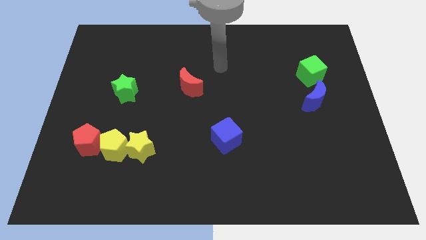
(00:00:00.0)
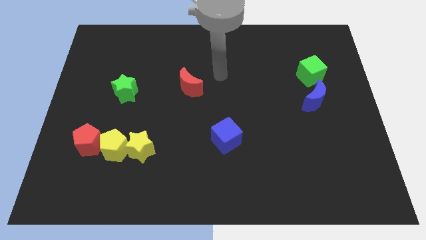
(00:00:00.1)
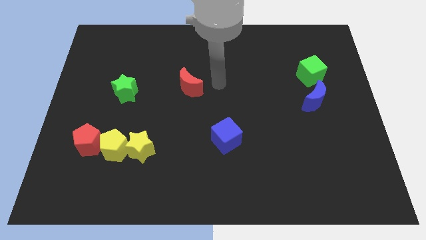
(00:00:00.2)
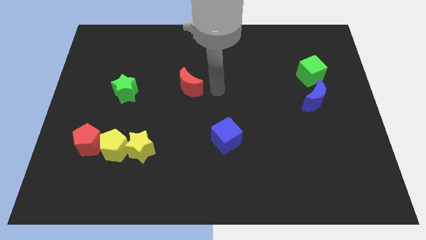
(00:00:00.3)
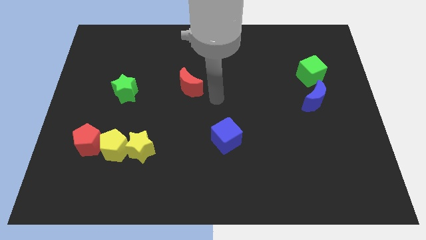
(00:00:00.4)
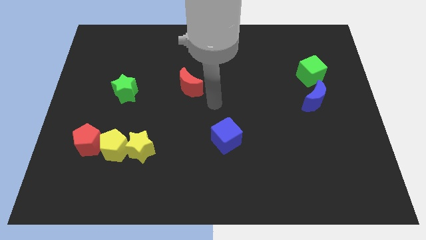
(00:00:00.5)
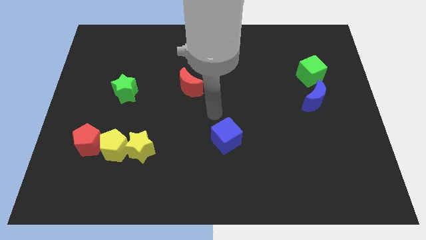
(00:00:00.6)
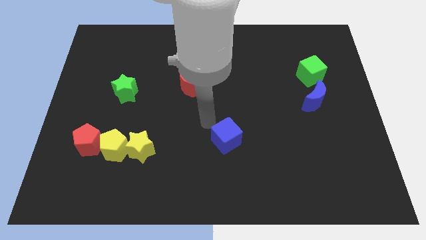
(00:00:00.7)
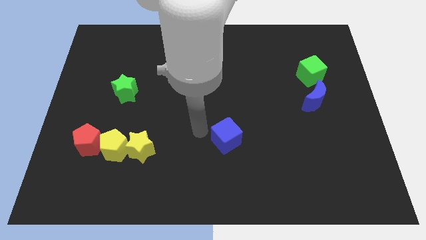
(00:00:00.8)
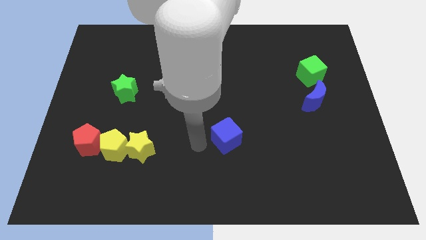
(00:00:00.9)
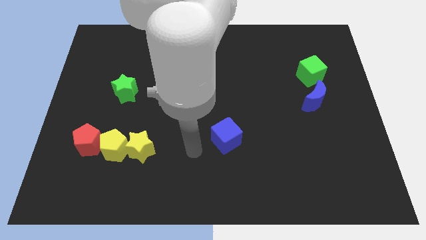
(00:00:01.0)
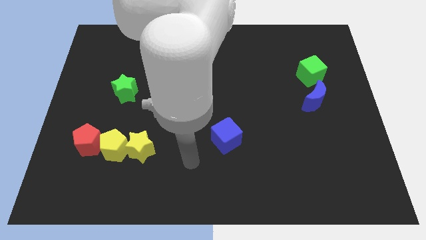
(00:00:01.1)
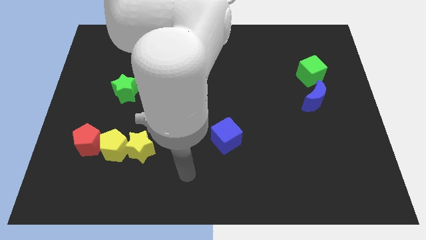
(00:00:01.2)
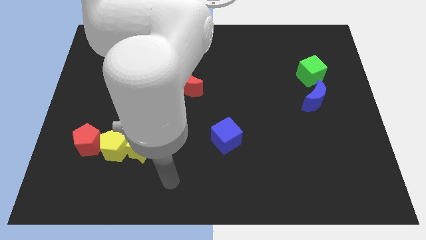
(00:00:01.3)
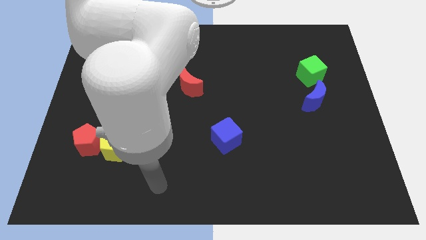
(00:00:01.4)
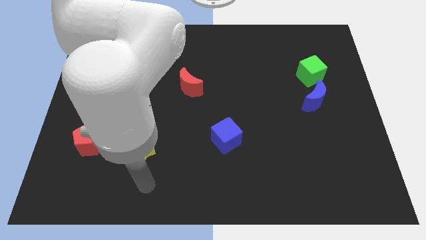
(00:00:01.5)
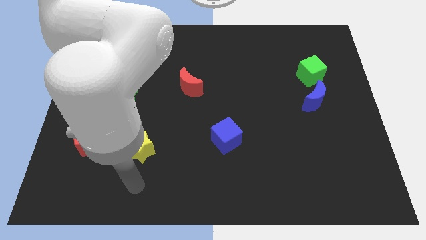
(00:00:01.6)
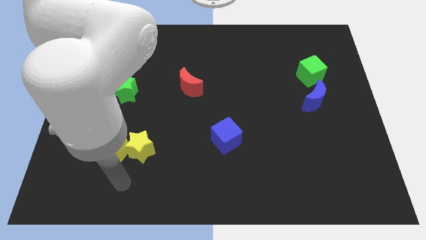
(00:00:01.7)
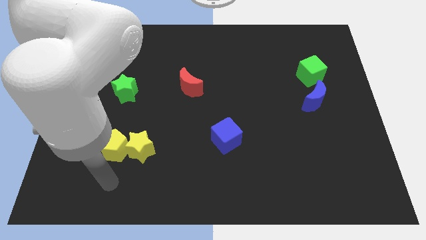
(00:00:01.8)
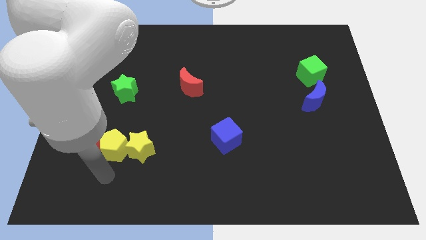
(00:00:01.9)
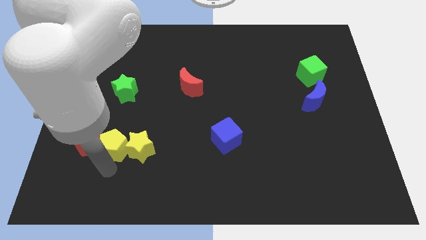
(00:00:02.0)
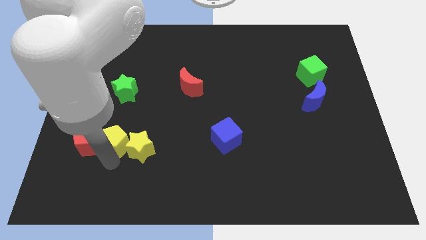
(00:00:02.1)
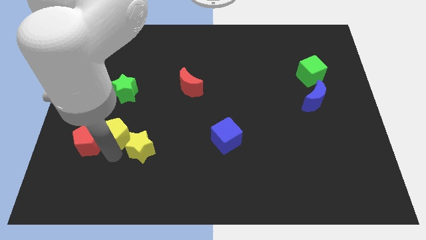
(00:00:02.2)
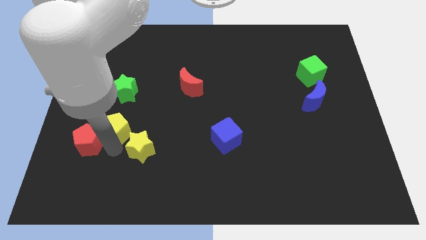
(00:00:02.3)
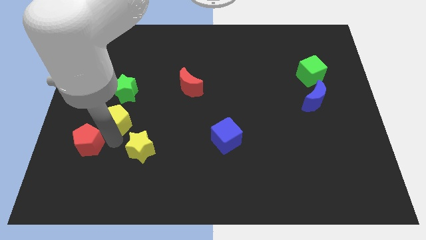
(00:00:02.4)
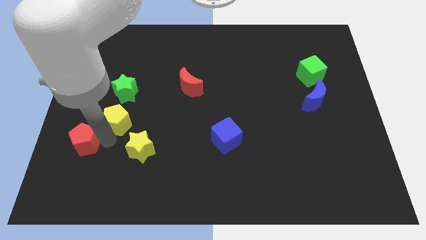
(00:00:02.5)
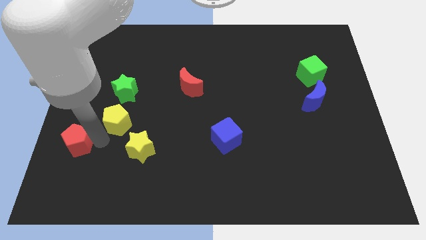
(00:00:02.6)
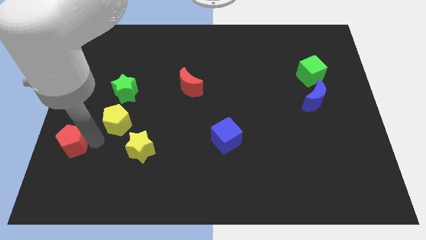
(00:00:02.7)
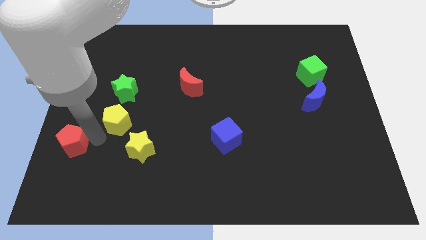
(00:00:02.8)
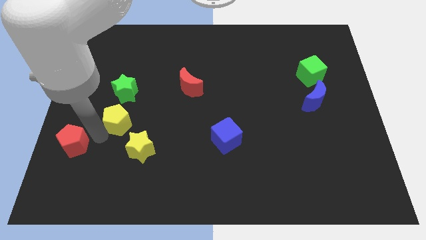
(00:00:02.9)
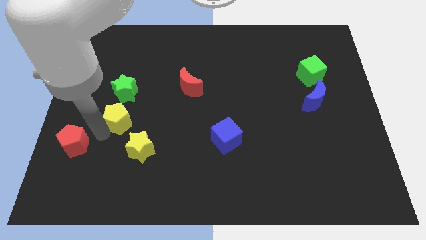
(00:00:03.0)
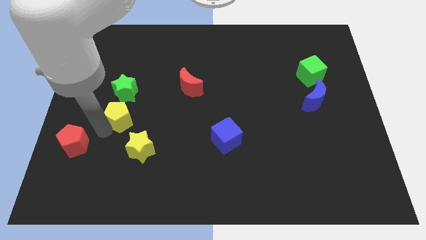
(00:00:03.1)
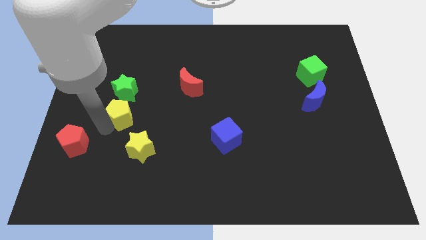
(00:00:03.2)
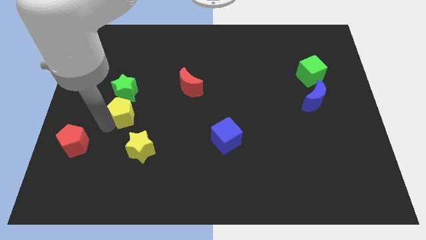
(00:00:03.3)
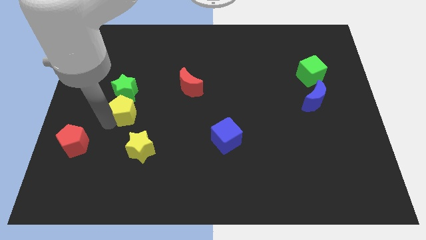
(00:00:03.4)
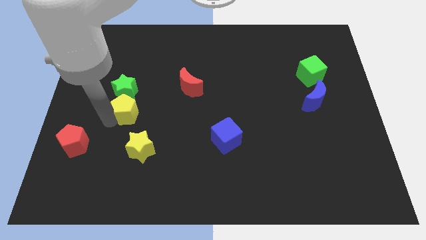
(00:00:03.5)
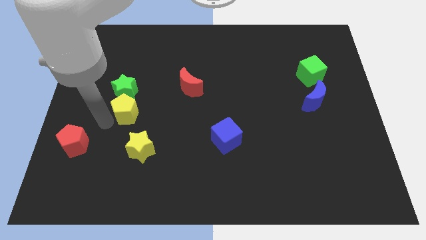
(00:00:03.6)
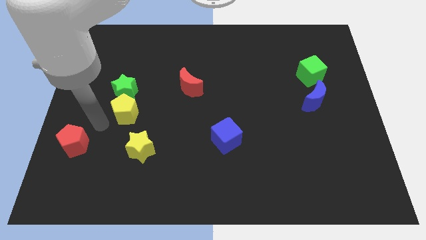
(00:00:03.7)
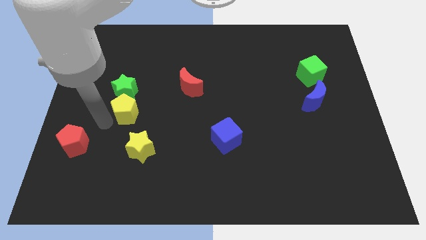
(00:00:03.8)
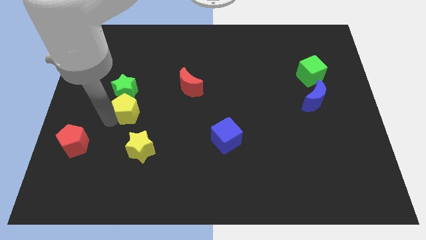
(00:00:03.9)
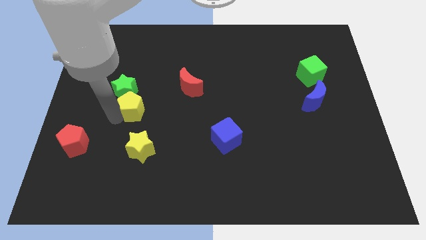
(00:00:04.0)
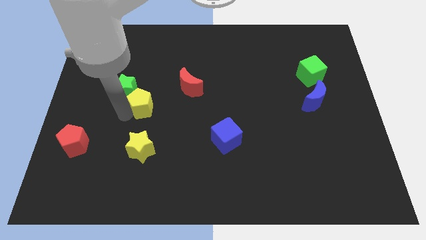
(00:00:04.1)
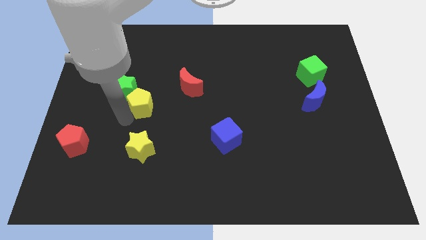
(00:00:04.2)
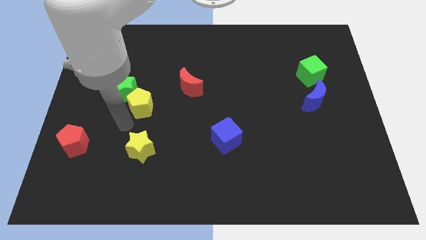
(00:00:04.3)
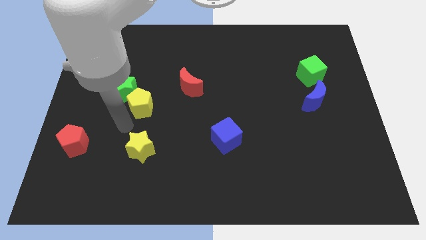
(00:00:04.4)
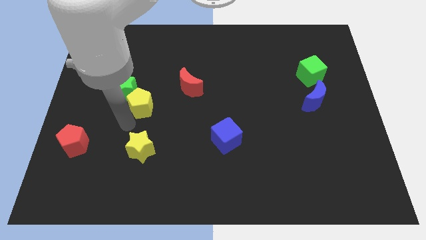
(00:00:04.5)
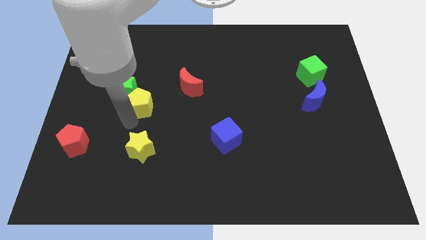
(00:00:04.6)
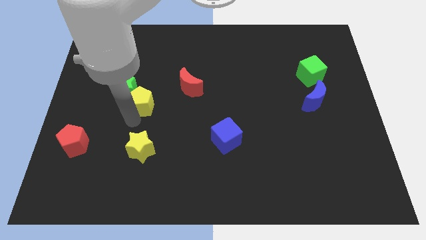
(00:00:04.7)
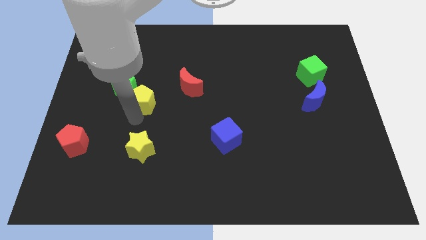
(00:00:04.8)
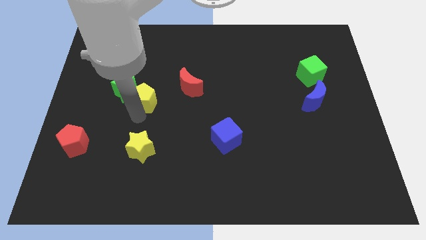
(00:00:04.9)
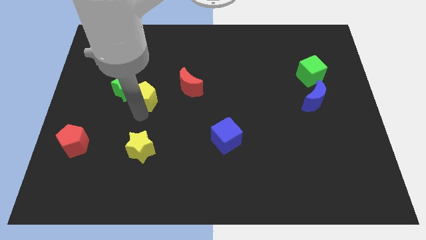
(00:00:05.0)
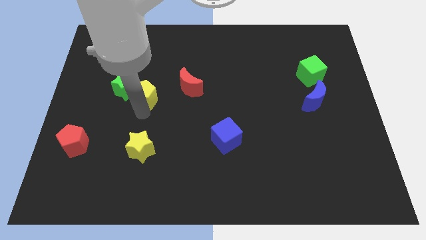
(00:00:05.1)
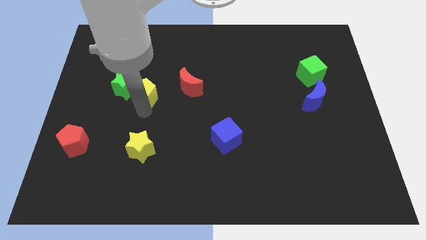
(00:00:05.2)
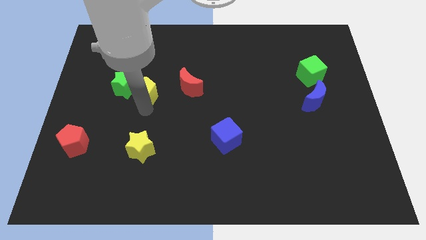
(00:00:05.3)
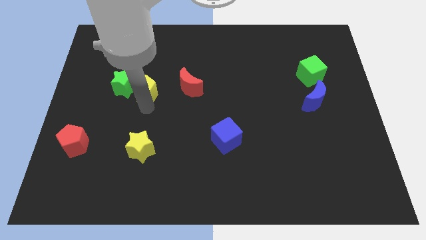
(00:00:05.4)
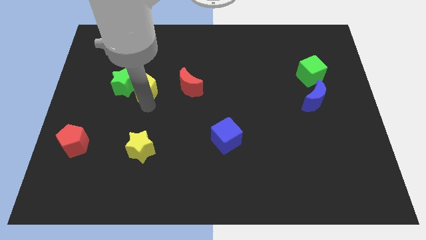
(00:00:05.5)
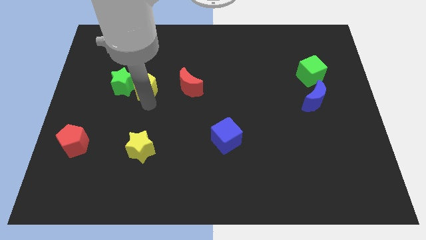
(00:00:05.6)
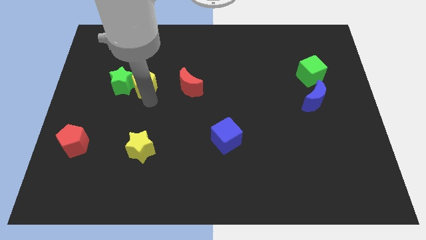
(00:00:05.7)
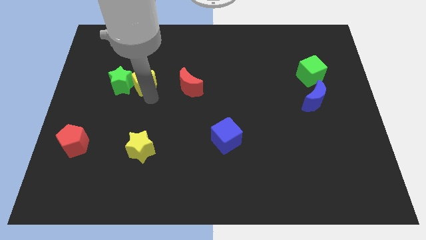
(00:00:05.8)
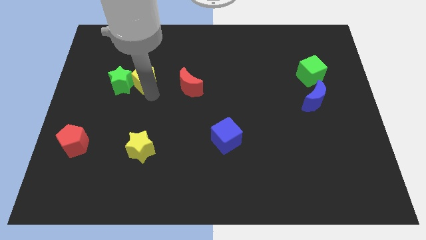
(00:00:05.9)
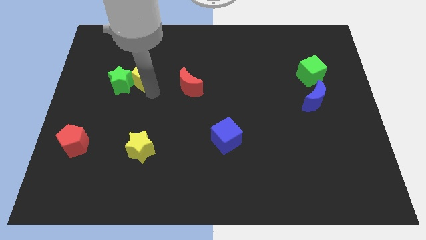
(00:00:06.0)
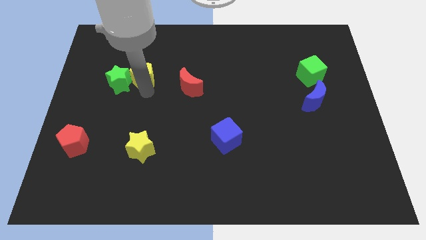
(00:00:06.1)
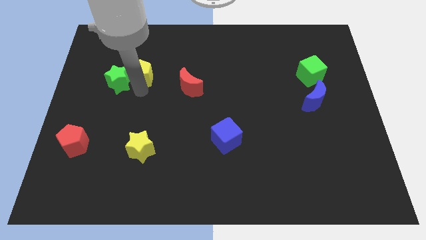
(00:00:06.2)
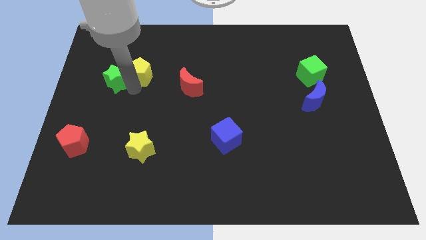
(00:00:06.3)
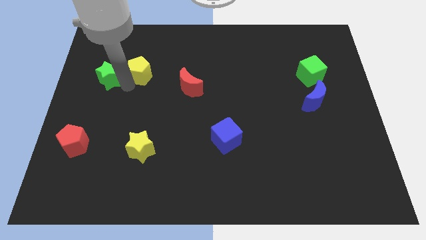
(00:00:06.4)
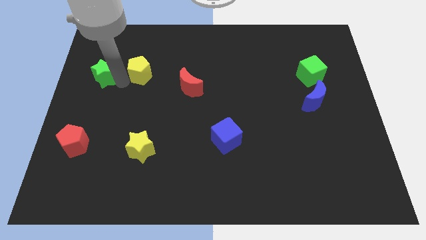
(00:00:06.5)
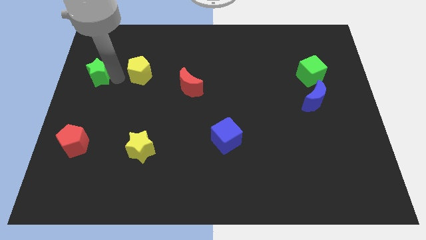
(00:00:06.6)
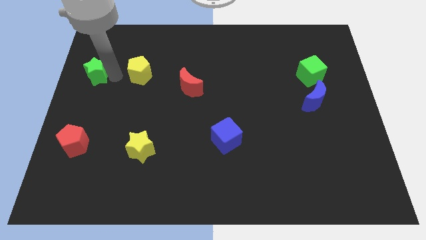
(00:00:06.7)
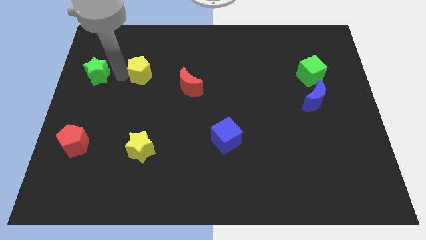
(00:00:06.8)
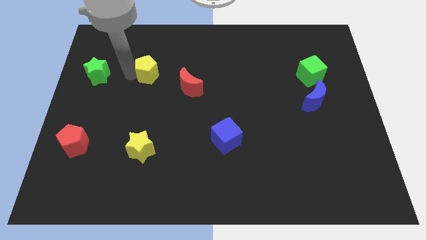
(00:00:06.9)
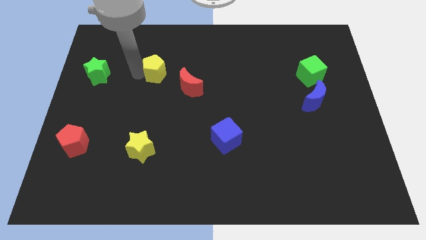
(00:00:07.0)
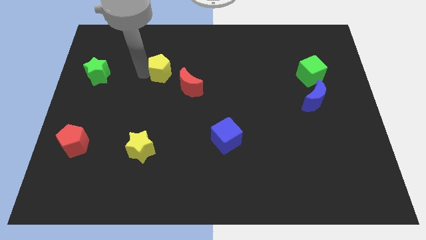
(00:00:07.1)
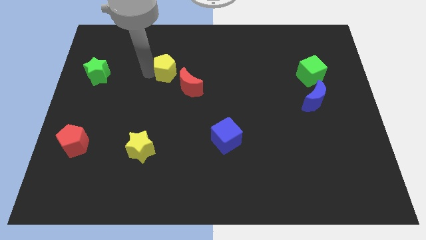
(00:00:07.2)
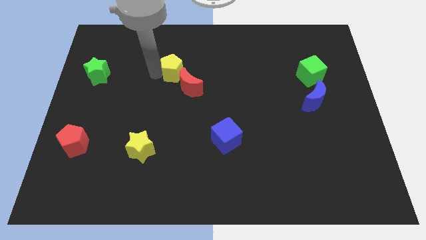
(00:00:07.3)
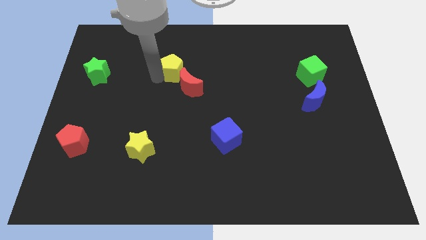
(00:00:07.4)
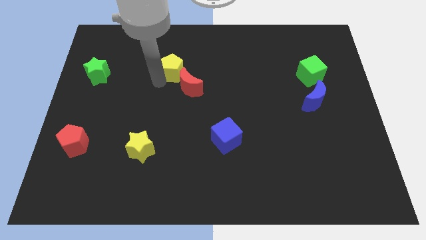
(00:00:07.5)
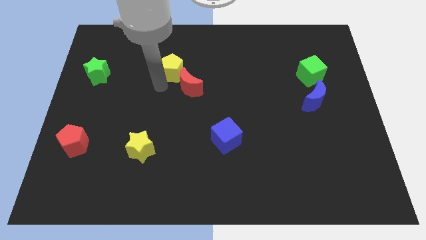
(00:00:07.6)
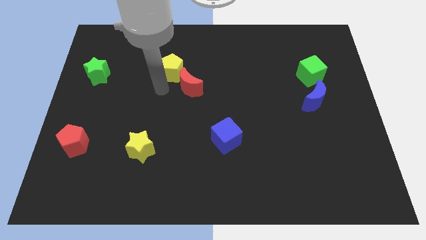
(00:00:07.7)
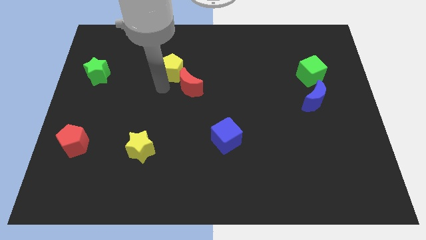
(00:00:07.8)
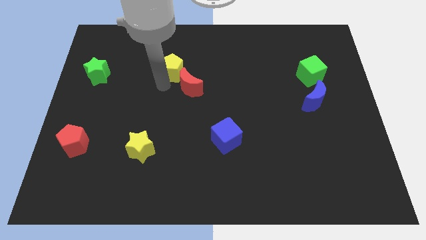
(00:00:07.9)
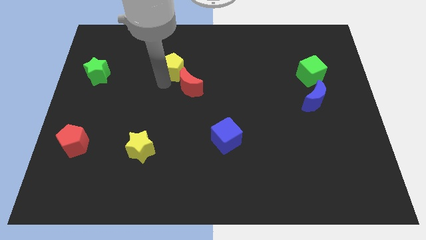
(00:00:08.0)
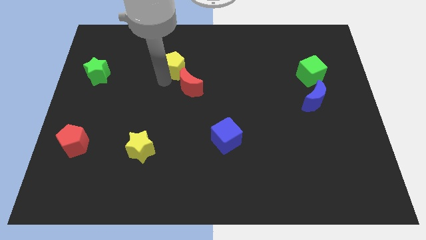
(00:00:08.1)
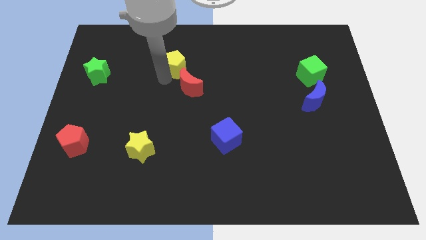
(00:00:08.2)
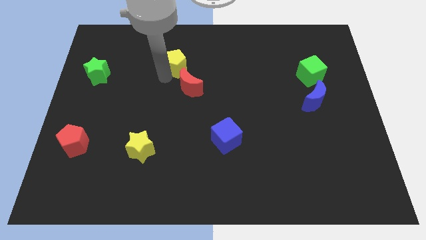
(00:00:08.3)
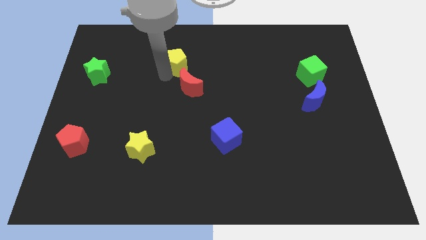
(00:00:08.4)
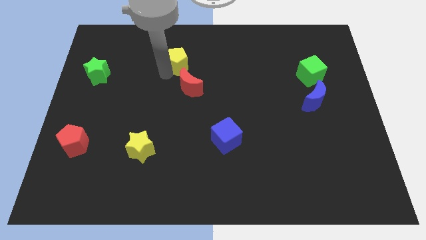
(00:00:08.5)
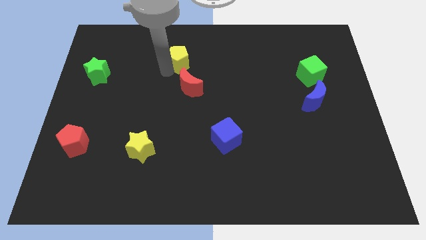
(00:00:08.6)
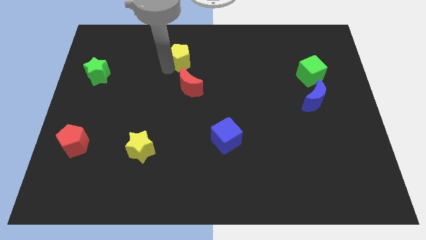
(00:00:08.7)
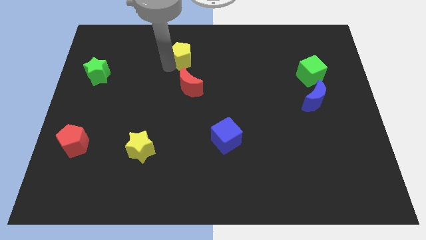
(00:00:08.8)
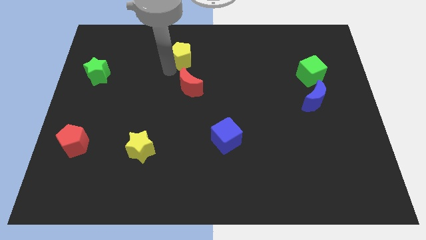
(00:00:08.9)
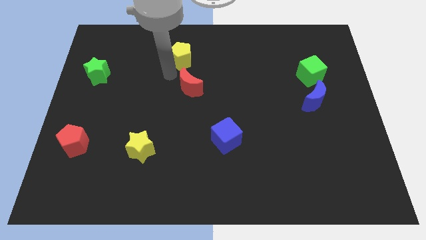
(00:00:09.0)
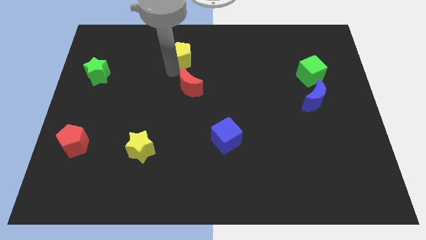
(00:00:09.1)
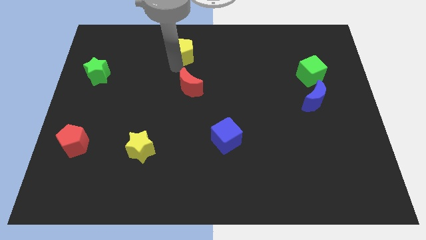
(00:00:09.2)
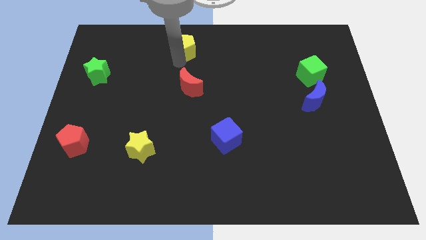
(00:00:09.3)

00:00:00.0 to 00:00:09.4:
move the yellow pentagon to the towards your base
